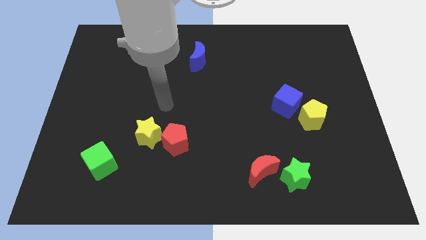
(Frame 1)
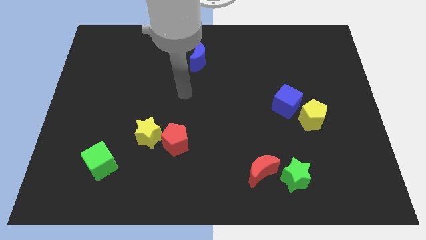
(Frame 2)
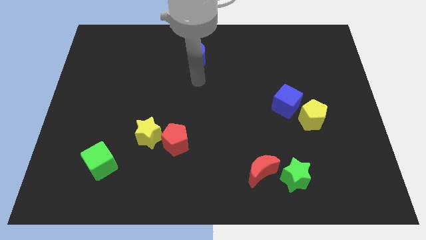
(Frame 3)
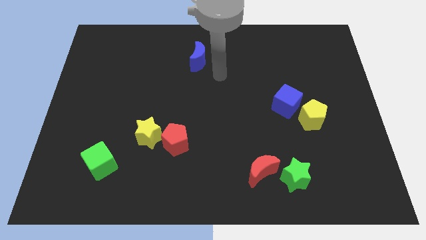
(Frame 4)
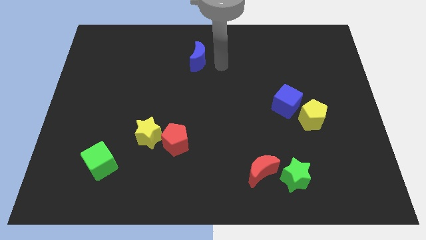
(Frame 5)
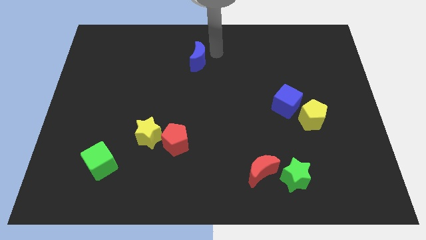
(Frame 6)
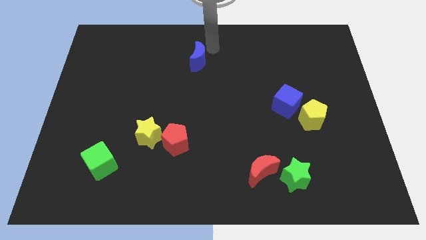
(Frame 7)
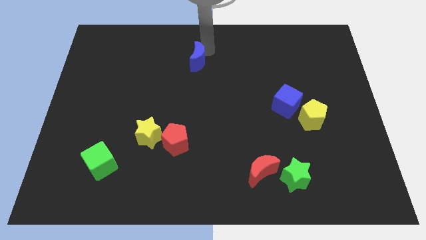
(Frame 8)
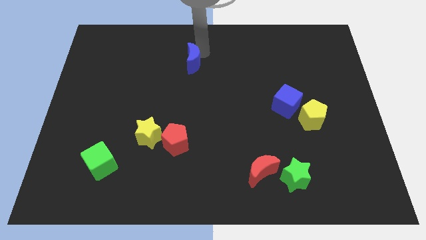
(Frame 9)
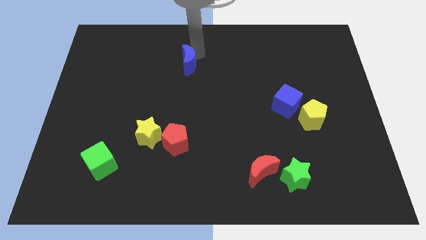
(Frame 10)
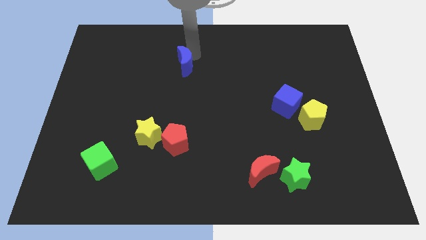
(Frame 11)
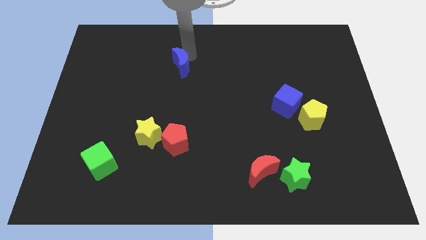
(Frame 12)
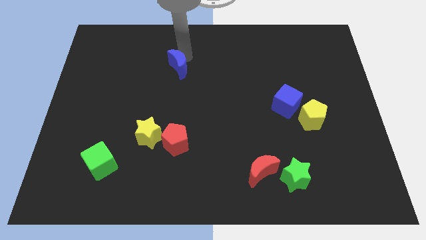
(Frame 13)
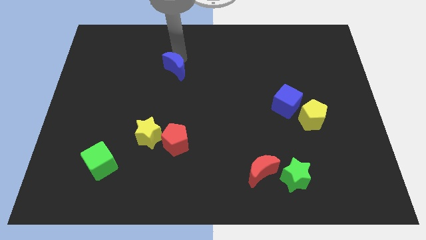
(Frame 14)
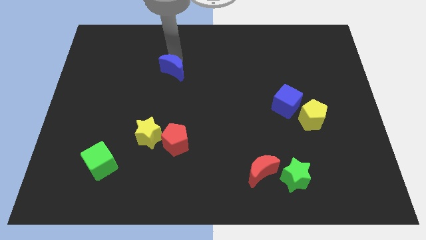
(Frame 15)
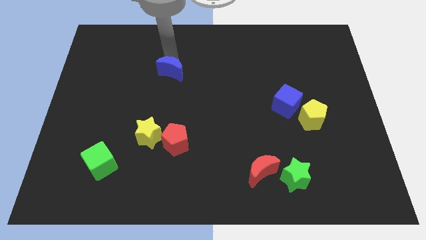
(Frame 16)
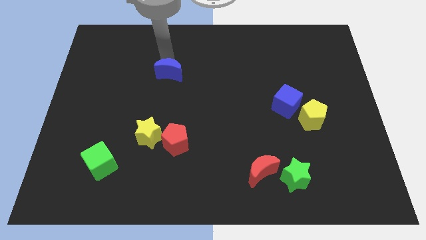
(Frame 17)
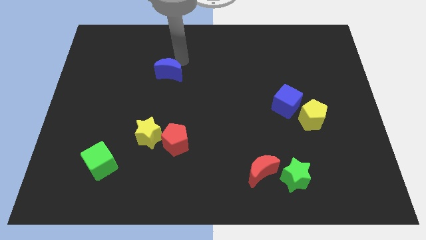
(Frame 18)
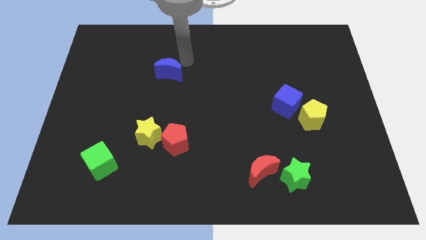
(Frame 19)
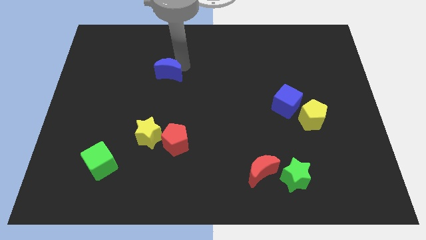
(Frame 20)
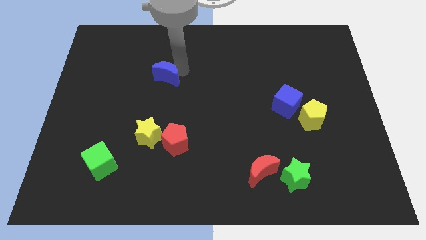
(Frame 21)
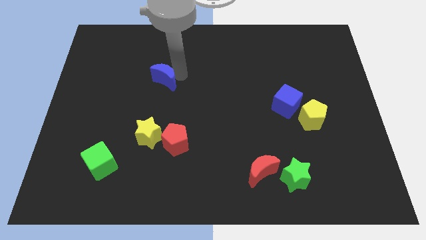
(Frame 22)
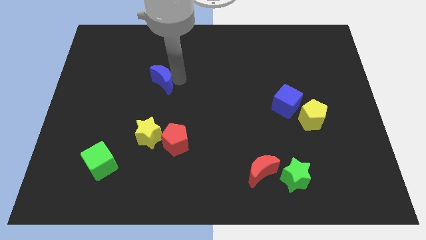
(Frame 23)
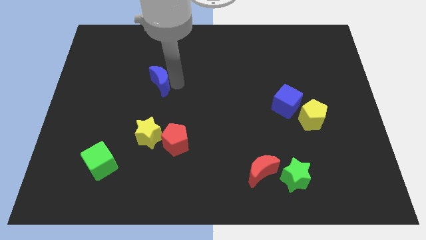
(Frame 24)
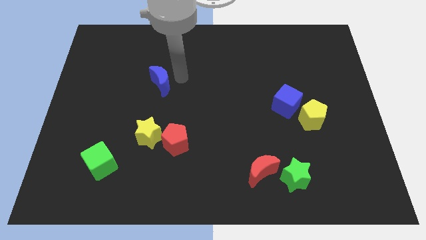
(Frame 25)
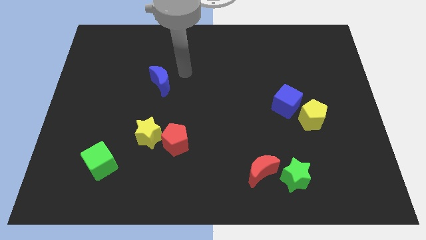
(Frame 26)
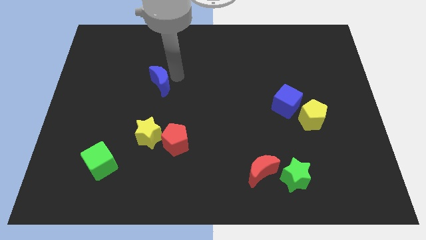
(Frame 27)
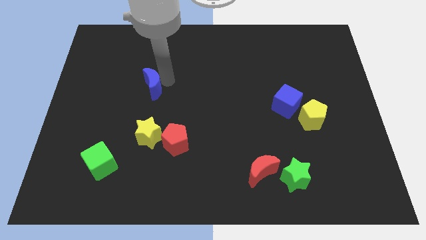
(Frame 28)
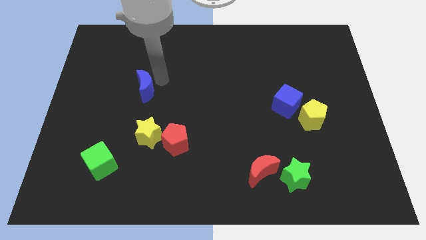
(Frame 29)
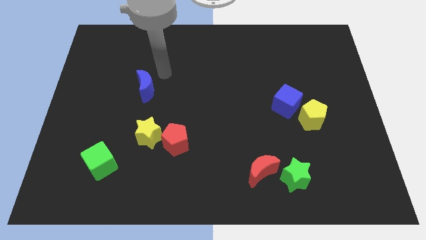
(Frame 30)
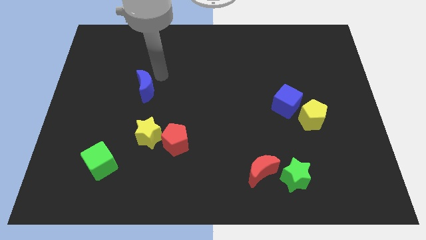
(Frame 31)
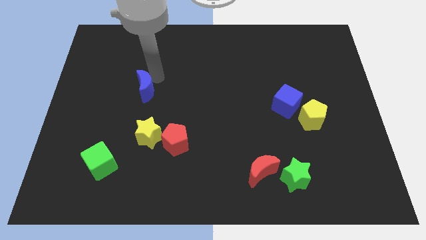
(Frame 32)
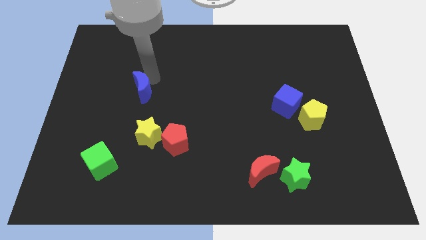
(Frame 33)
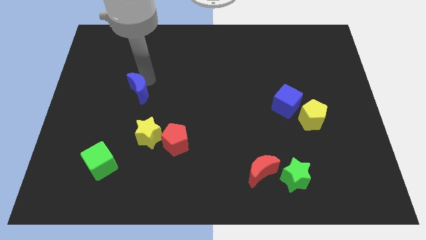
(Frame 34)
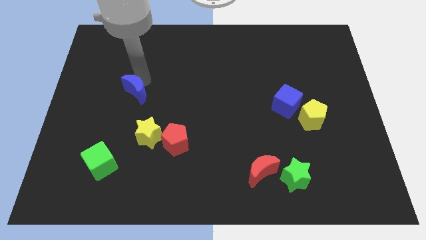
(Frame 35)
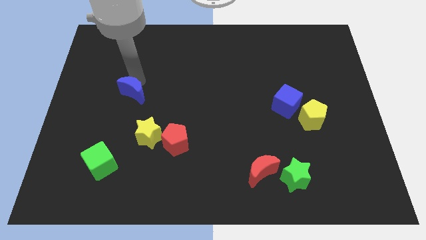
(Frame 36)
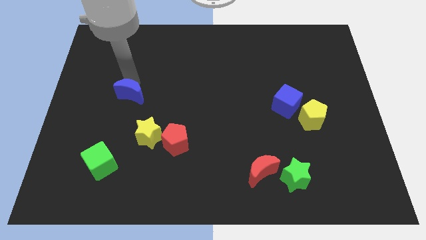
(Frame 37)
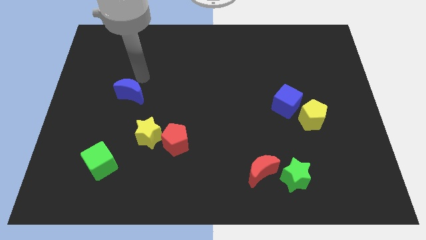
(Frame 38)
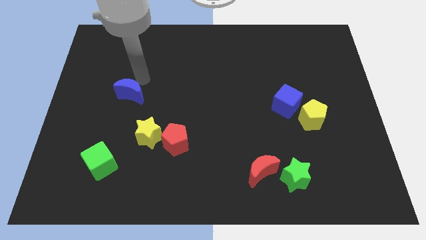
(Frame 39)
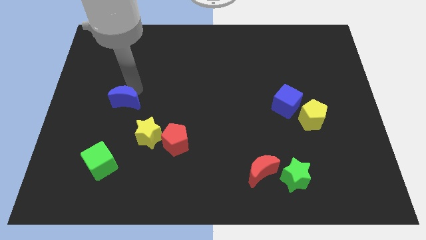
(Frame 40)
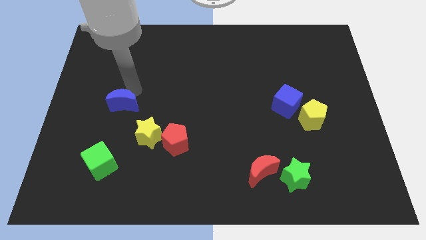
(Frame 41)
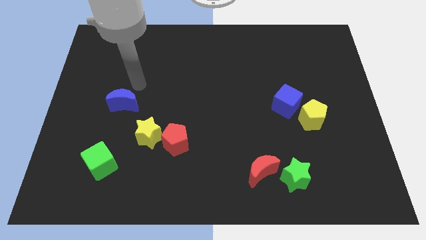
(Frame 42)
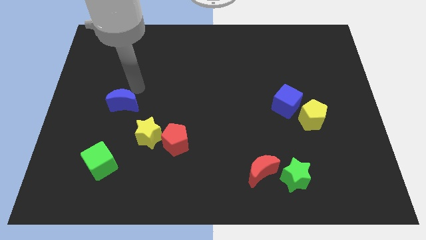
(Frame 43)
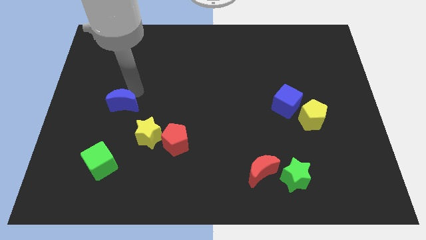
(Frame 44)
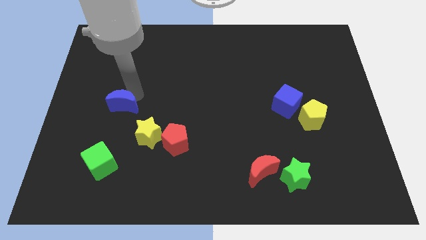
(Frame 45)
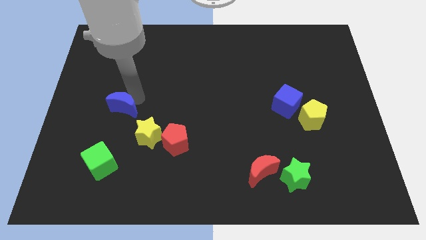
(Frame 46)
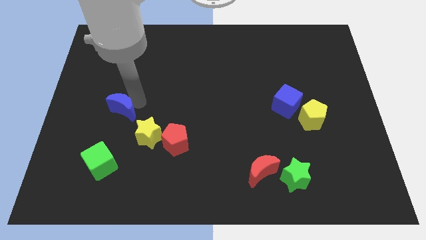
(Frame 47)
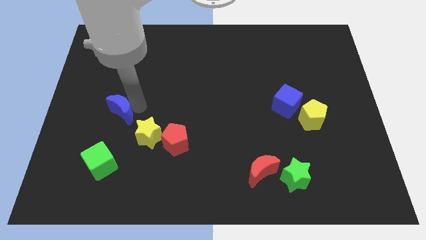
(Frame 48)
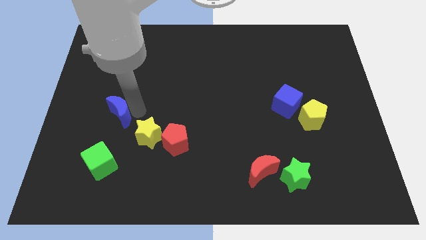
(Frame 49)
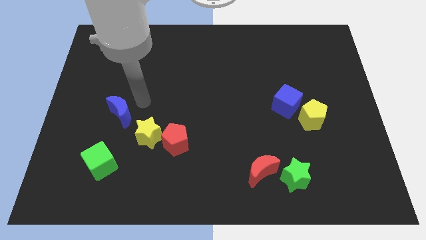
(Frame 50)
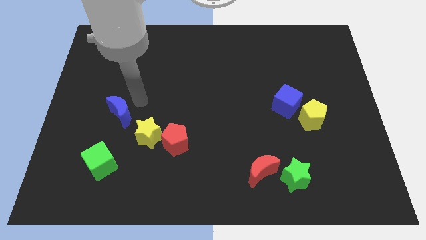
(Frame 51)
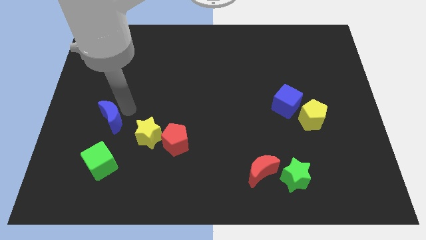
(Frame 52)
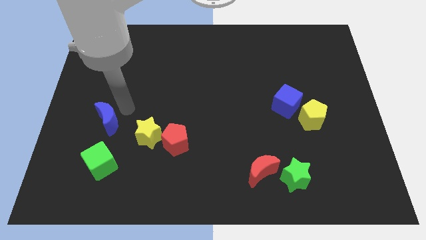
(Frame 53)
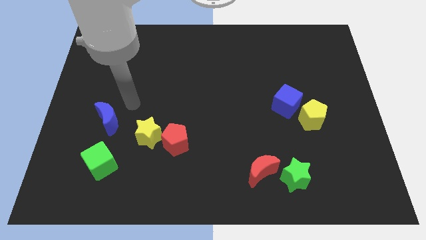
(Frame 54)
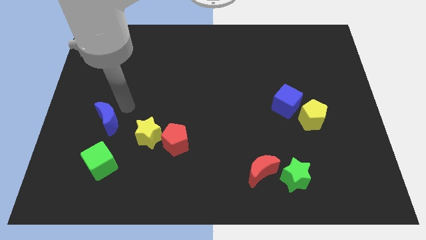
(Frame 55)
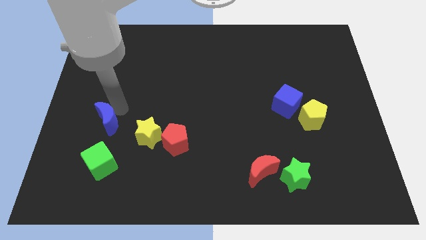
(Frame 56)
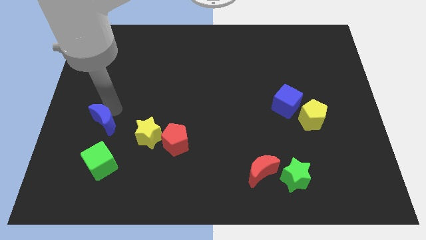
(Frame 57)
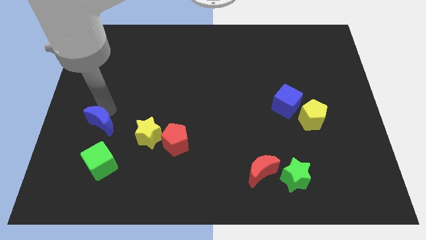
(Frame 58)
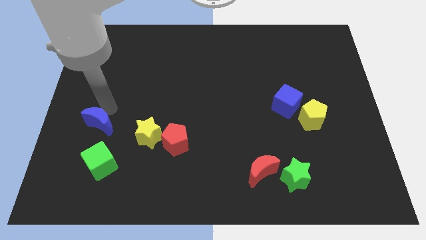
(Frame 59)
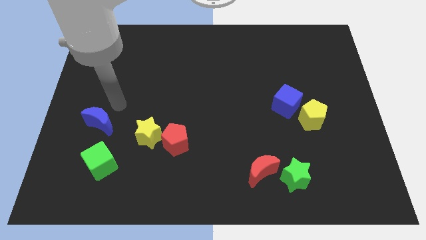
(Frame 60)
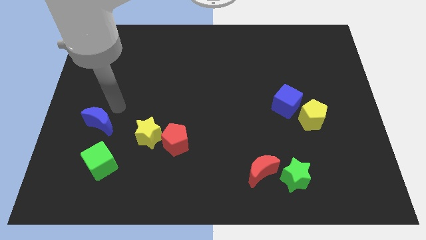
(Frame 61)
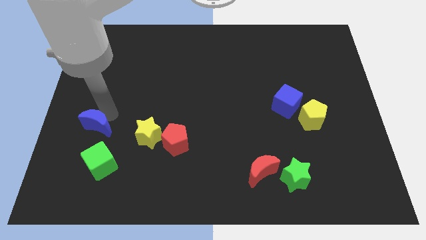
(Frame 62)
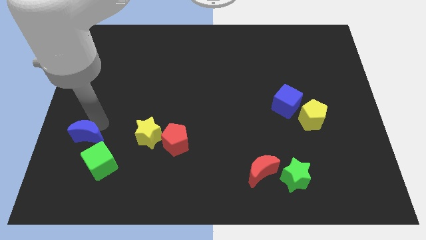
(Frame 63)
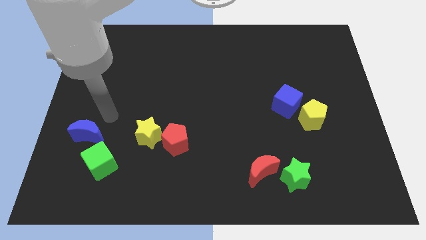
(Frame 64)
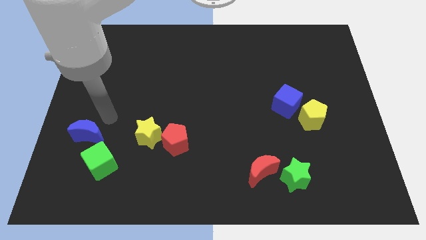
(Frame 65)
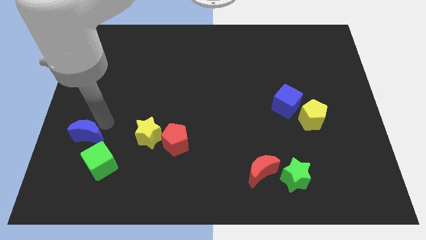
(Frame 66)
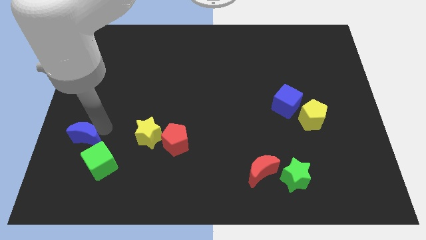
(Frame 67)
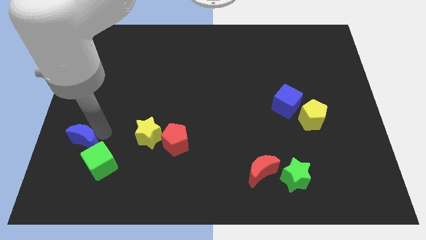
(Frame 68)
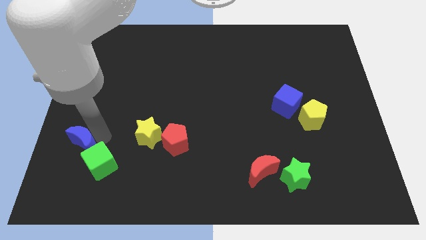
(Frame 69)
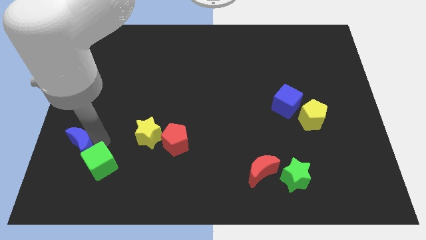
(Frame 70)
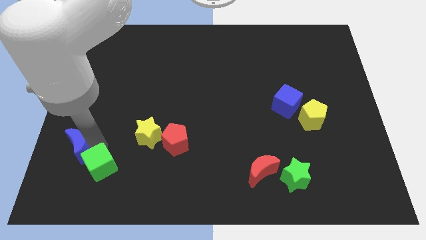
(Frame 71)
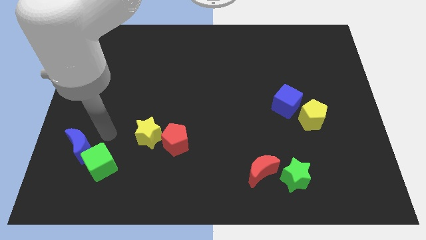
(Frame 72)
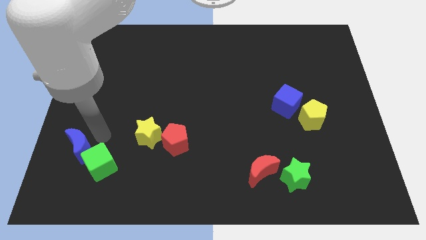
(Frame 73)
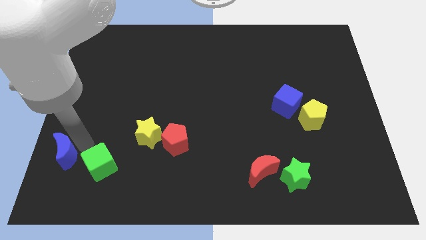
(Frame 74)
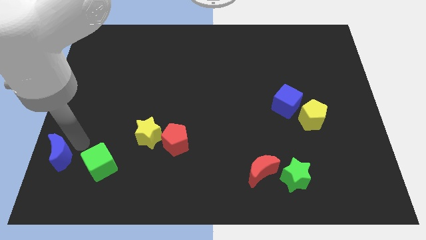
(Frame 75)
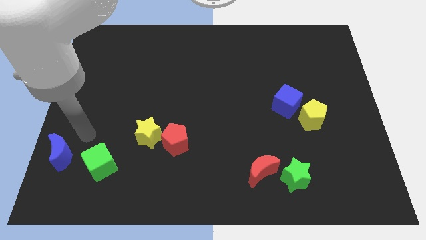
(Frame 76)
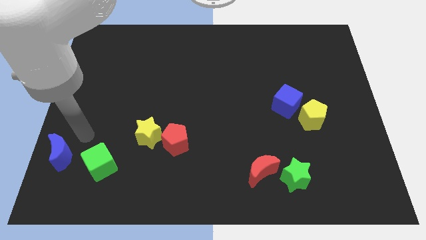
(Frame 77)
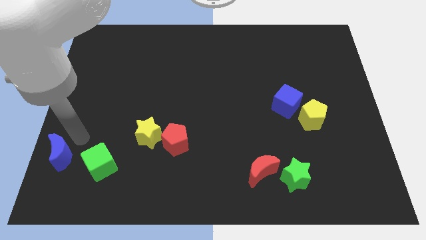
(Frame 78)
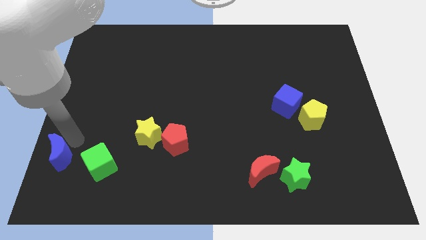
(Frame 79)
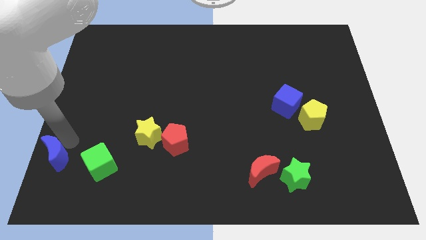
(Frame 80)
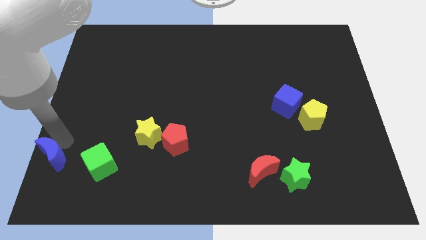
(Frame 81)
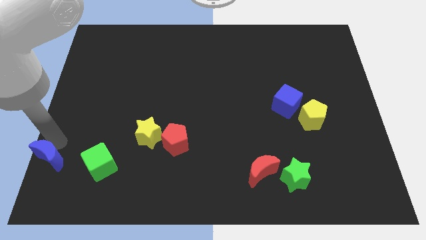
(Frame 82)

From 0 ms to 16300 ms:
move the blue moon to the bottom left of the board
